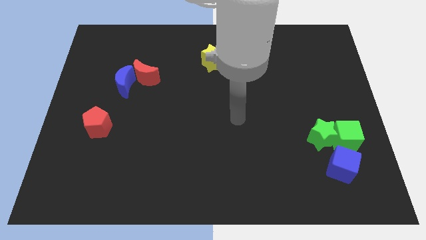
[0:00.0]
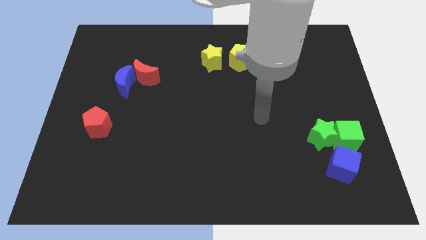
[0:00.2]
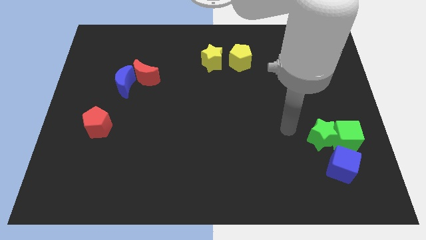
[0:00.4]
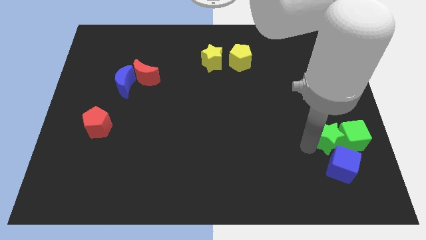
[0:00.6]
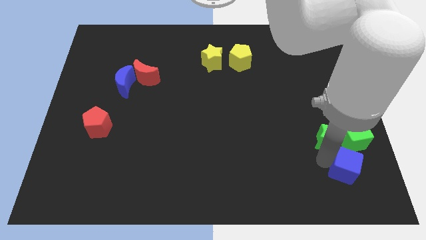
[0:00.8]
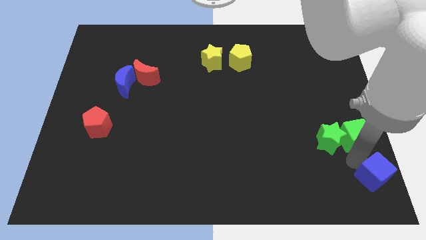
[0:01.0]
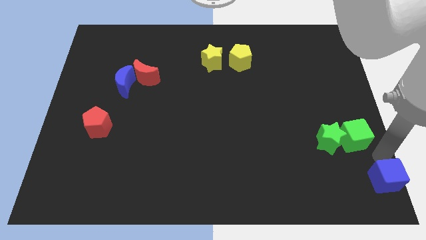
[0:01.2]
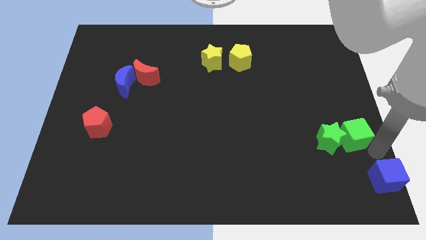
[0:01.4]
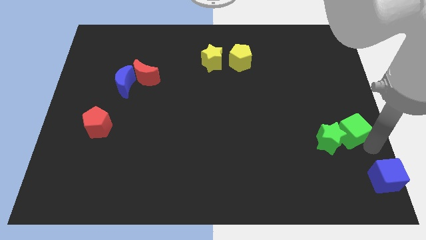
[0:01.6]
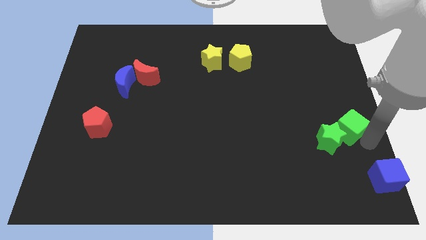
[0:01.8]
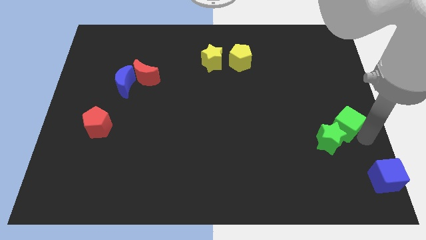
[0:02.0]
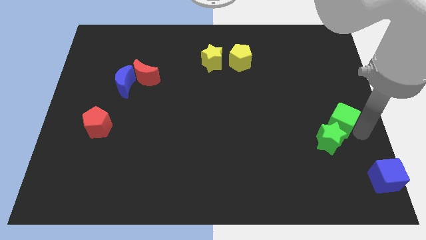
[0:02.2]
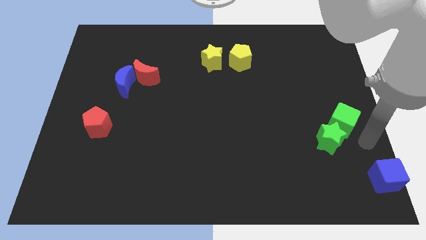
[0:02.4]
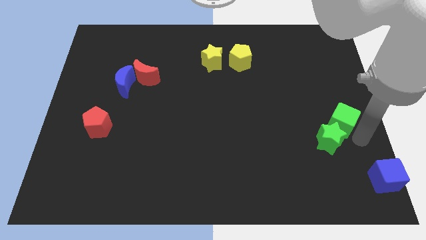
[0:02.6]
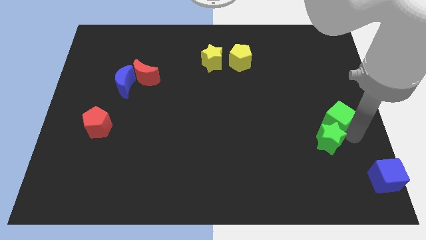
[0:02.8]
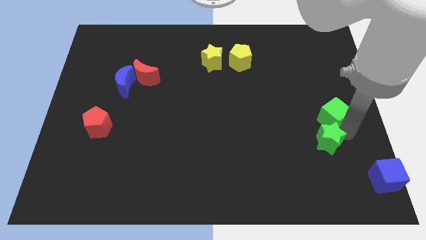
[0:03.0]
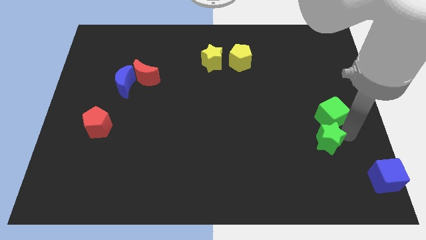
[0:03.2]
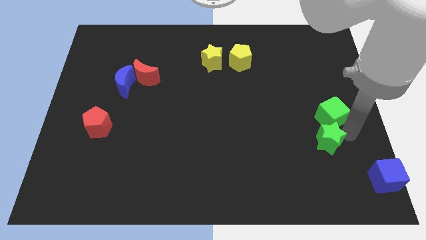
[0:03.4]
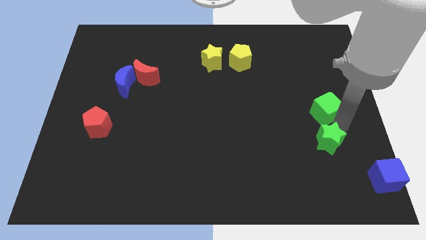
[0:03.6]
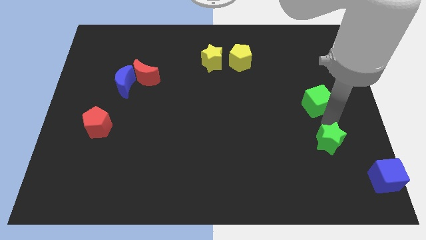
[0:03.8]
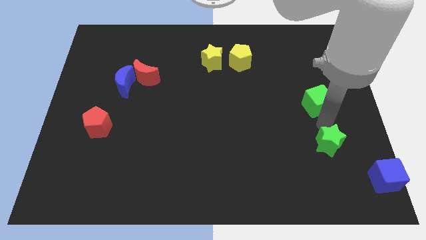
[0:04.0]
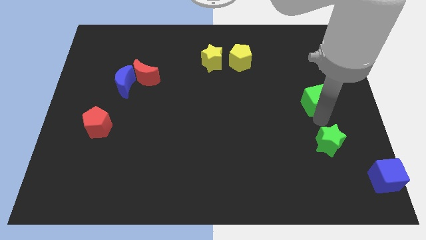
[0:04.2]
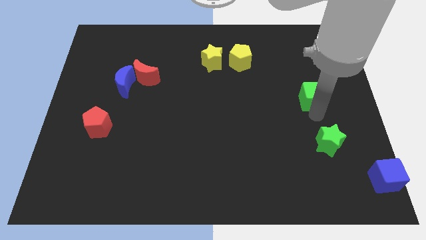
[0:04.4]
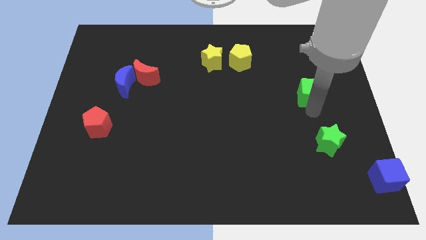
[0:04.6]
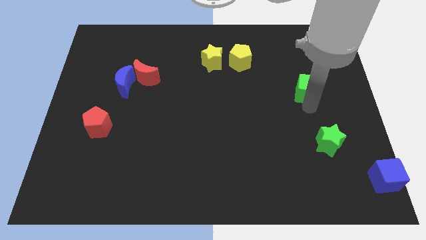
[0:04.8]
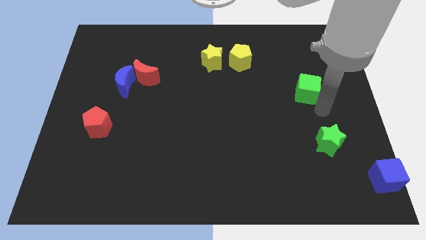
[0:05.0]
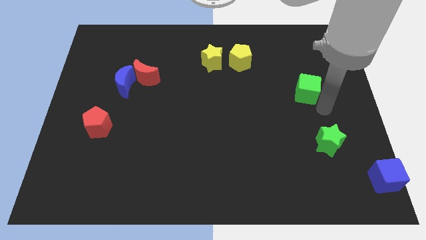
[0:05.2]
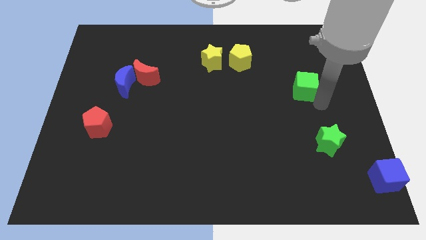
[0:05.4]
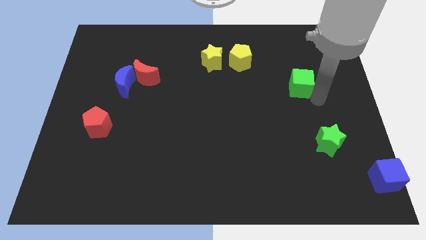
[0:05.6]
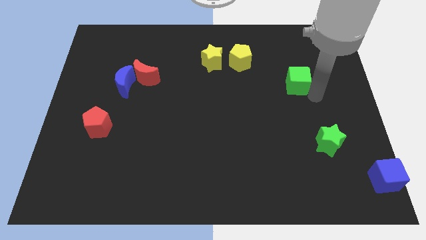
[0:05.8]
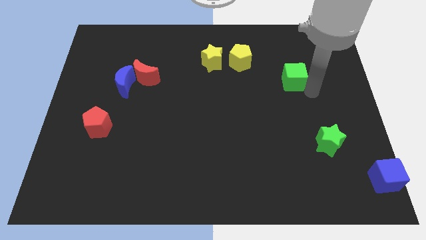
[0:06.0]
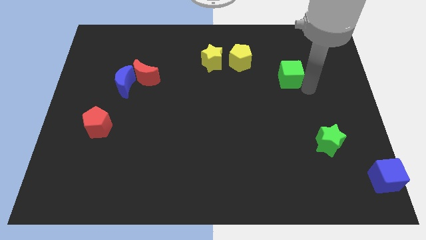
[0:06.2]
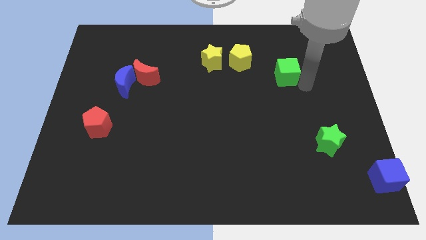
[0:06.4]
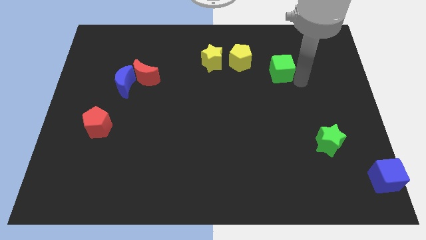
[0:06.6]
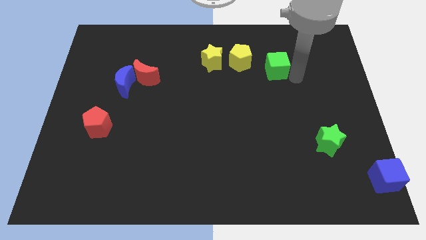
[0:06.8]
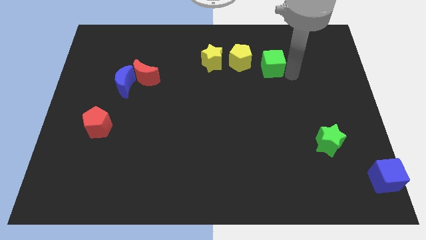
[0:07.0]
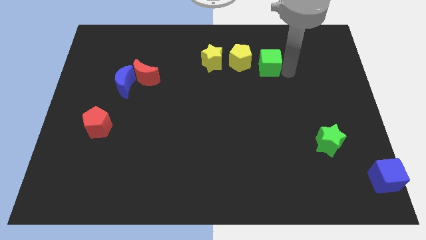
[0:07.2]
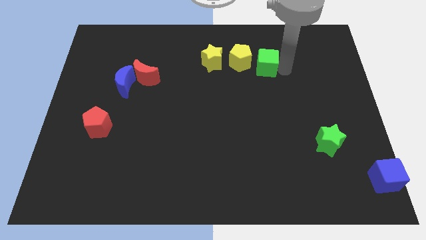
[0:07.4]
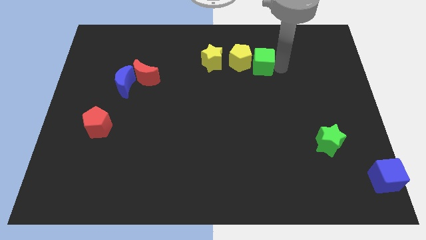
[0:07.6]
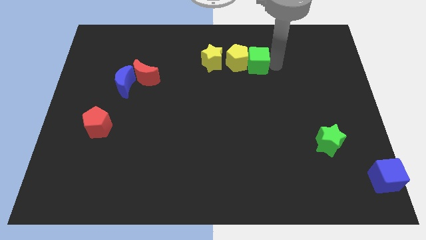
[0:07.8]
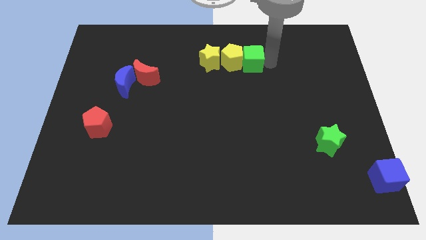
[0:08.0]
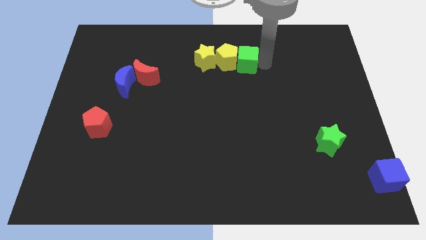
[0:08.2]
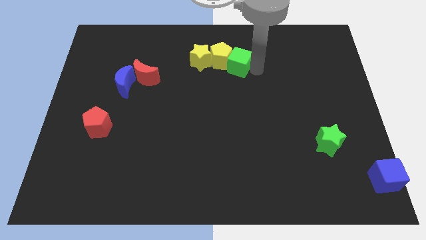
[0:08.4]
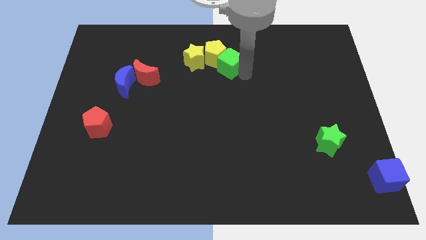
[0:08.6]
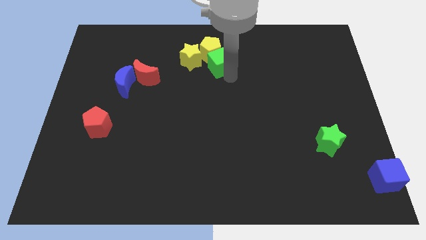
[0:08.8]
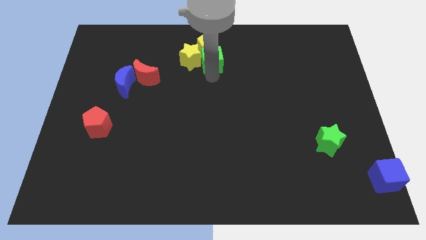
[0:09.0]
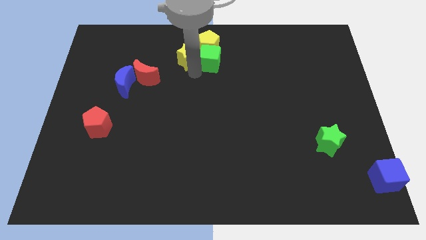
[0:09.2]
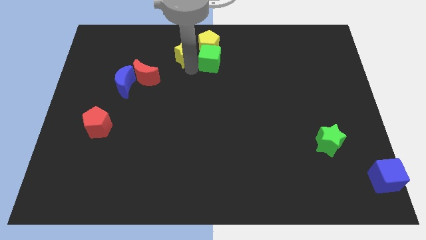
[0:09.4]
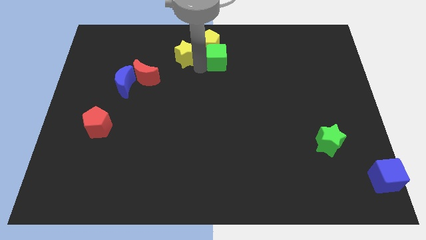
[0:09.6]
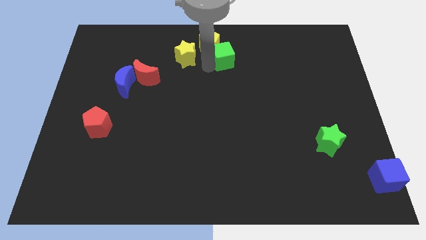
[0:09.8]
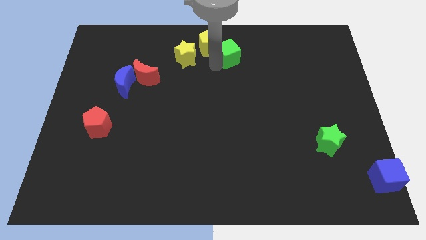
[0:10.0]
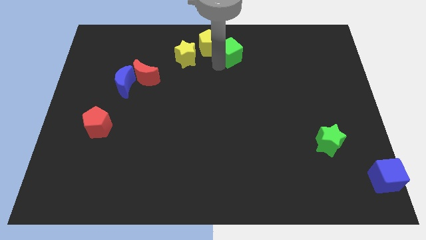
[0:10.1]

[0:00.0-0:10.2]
slide the green cube to the top side

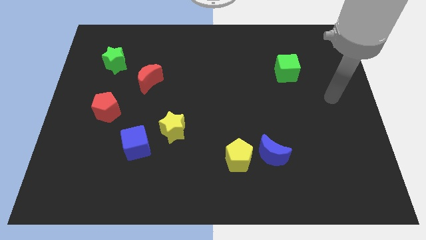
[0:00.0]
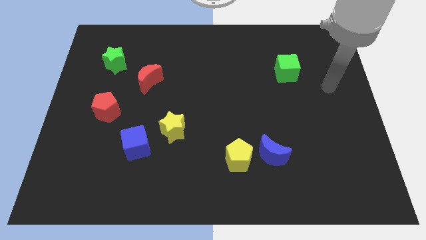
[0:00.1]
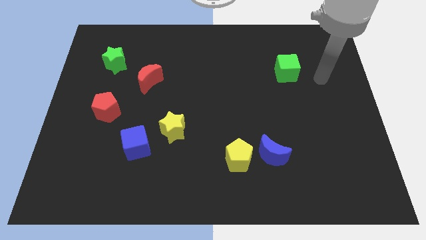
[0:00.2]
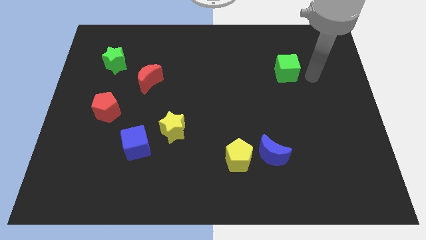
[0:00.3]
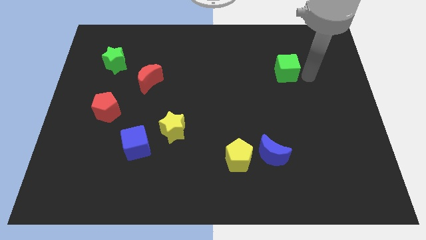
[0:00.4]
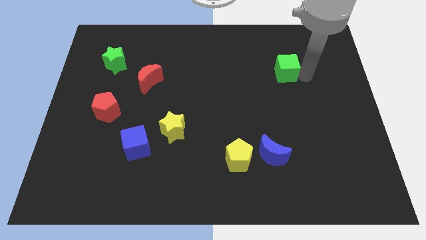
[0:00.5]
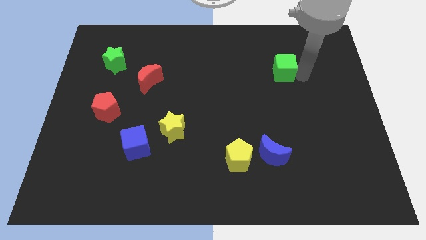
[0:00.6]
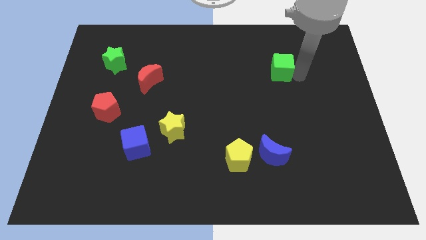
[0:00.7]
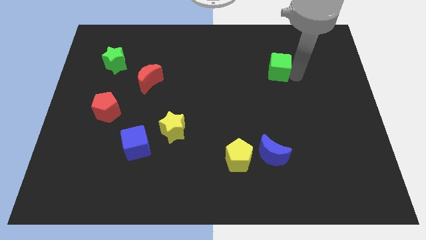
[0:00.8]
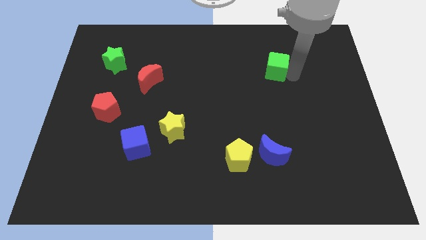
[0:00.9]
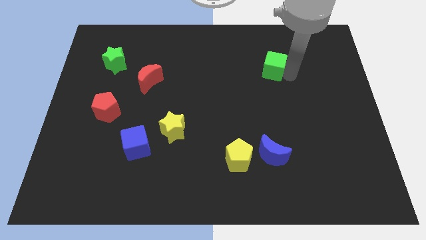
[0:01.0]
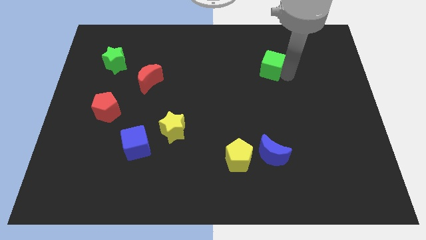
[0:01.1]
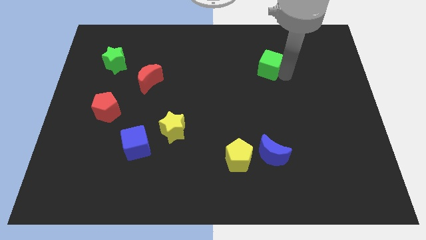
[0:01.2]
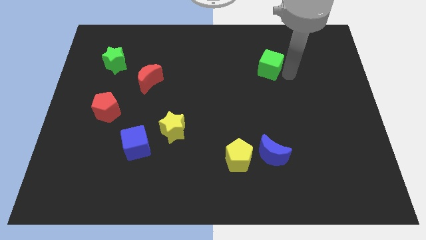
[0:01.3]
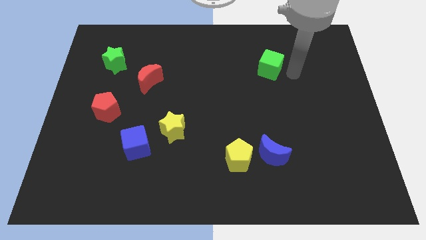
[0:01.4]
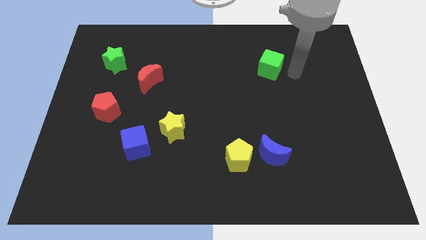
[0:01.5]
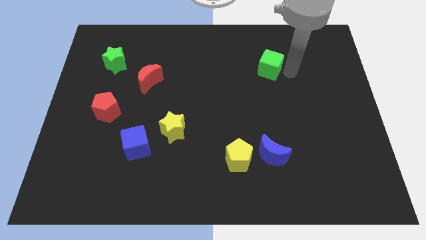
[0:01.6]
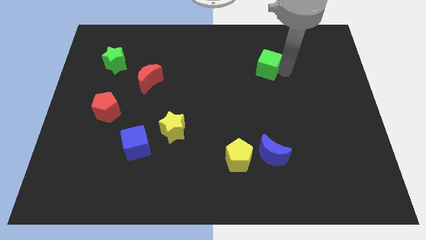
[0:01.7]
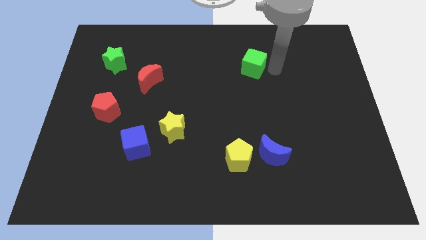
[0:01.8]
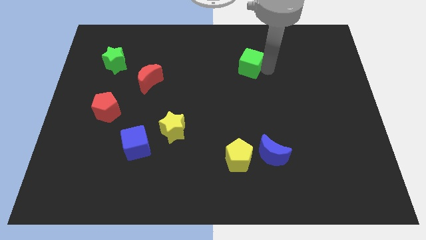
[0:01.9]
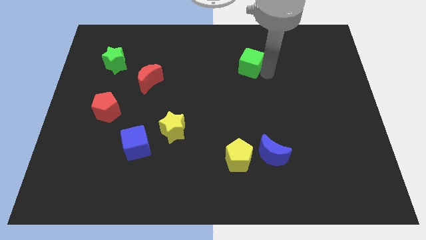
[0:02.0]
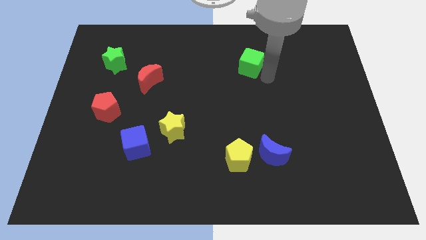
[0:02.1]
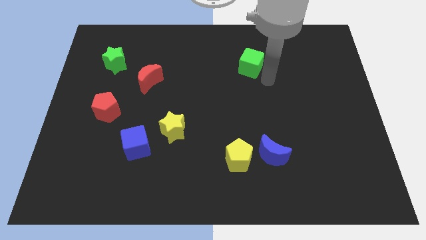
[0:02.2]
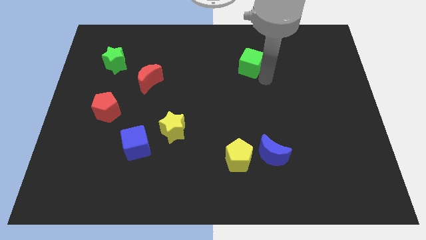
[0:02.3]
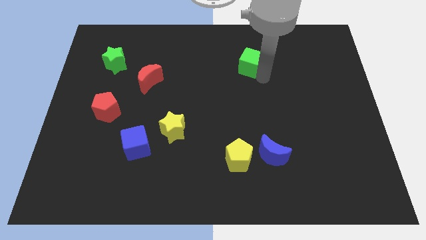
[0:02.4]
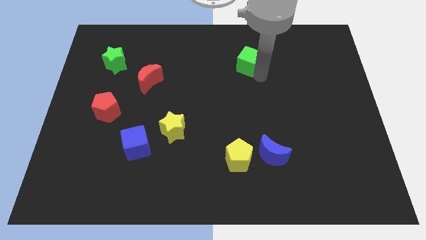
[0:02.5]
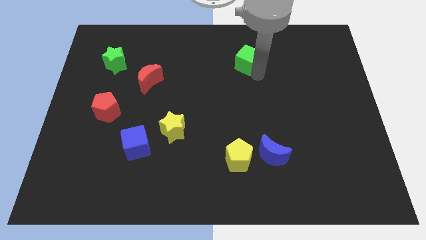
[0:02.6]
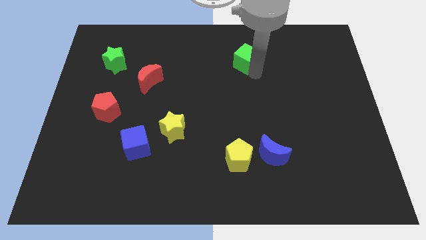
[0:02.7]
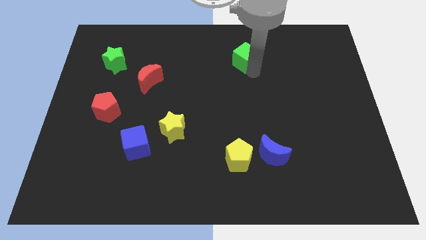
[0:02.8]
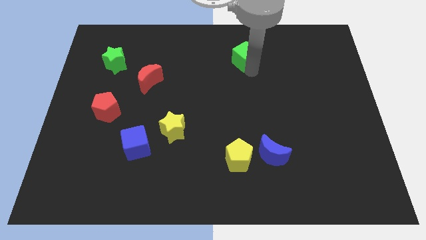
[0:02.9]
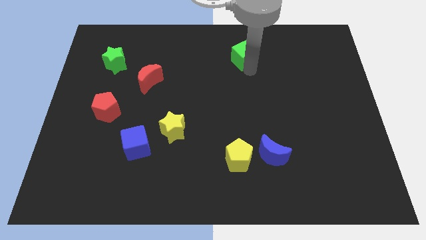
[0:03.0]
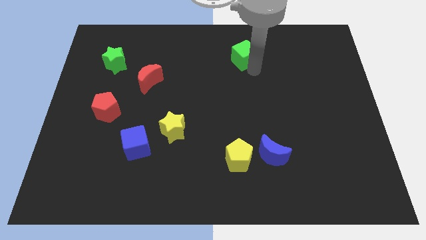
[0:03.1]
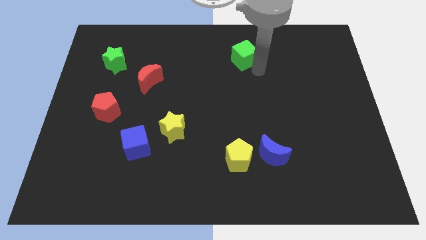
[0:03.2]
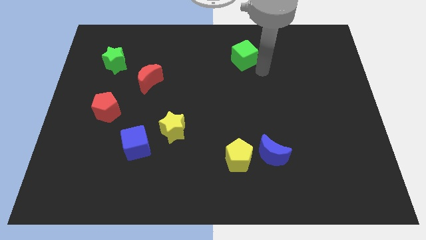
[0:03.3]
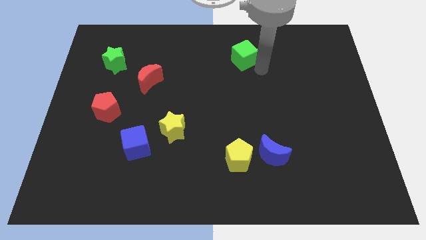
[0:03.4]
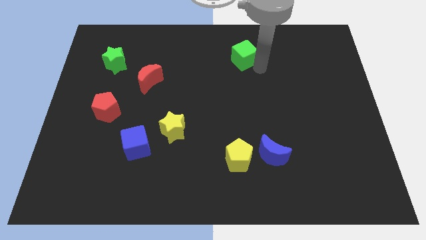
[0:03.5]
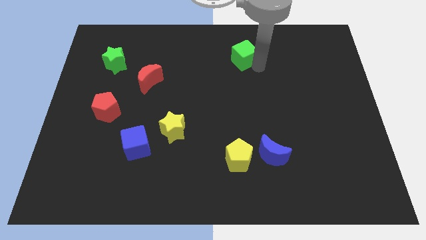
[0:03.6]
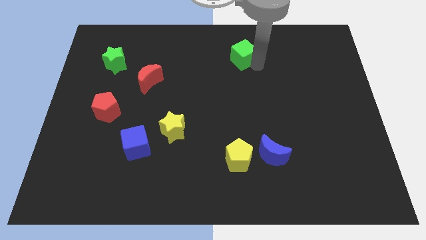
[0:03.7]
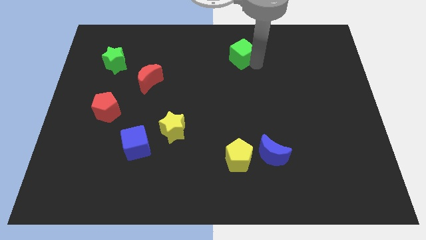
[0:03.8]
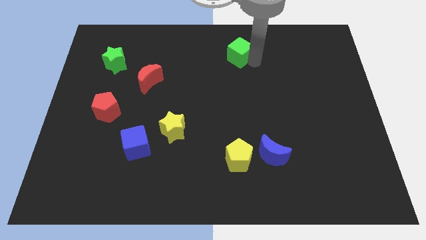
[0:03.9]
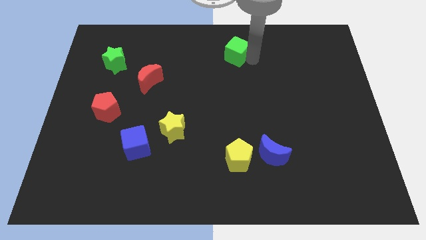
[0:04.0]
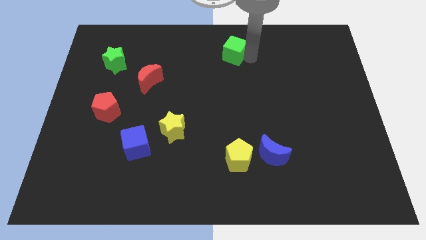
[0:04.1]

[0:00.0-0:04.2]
push the green cube to the top
